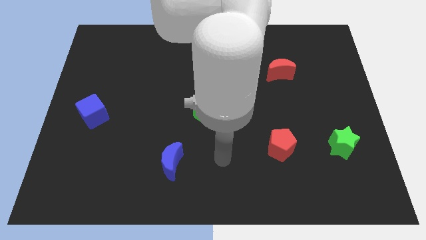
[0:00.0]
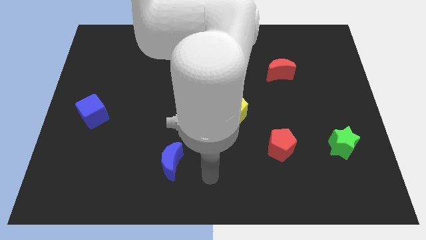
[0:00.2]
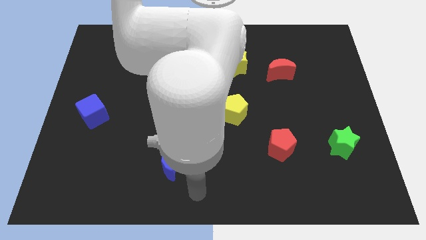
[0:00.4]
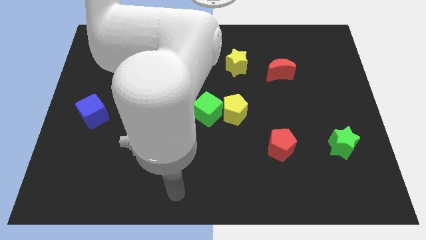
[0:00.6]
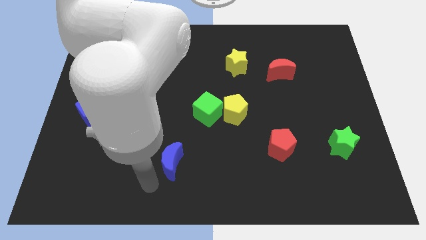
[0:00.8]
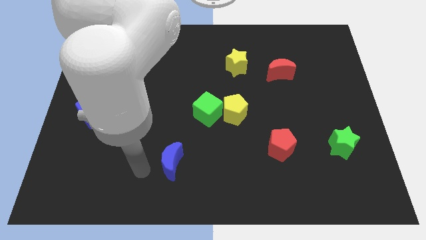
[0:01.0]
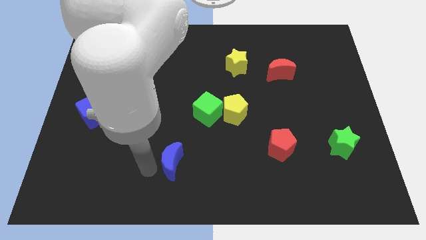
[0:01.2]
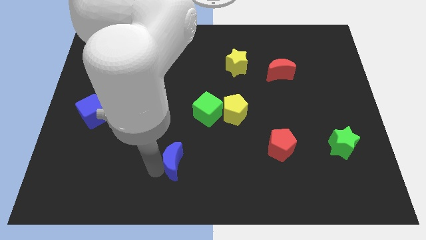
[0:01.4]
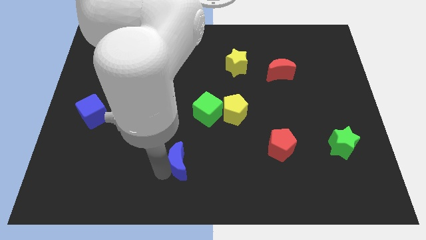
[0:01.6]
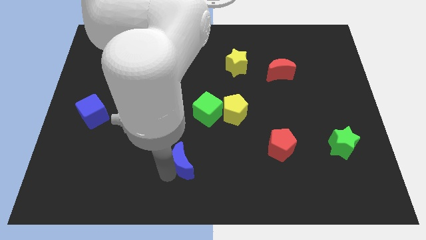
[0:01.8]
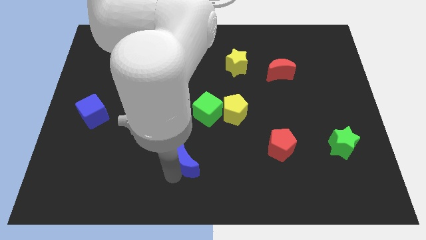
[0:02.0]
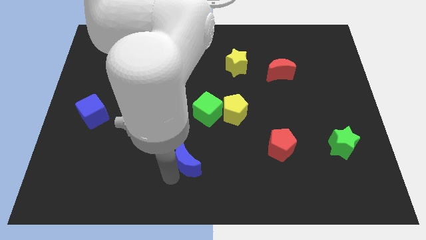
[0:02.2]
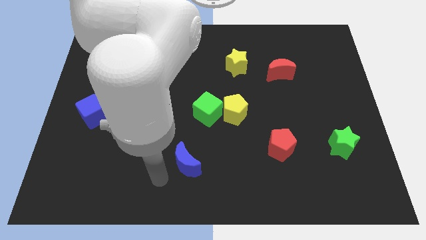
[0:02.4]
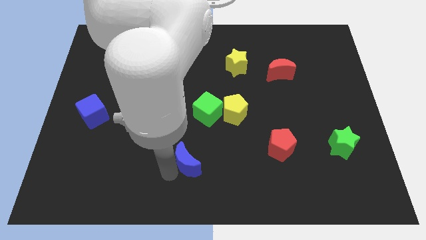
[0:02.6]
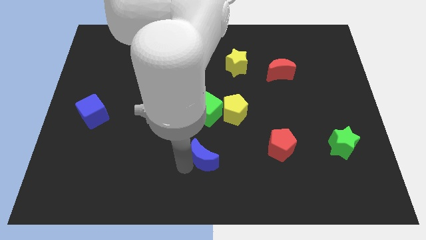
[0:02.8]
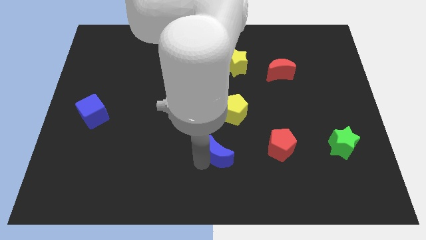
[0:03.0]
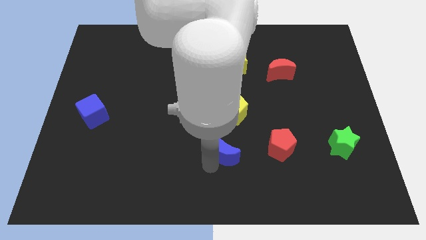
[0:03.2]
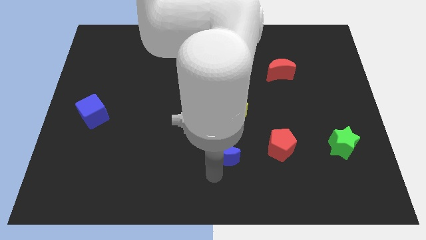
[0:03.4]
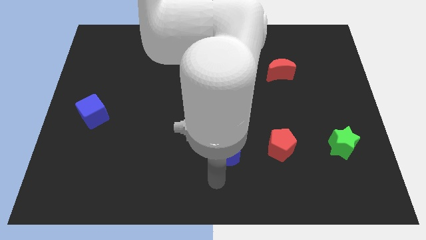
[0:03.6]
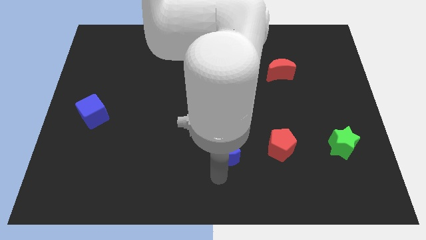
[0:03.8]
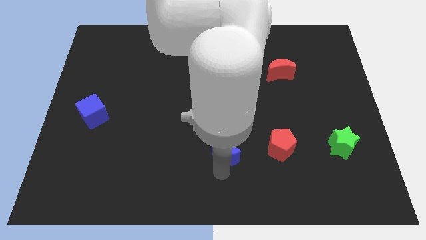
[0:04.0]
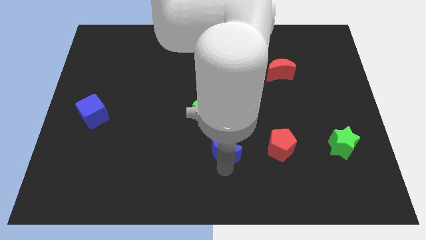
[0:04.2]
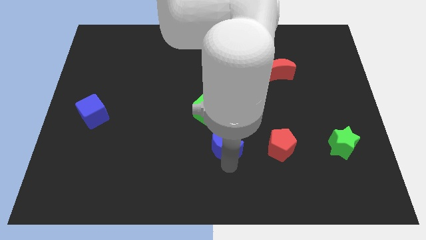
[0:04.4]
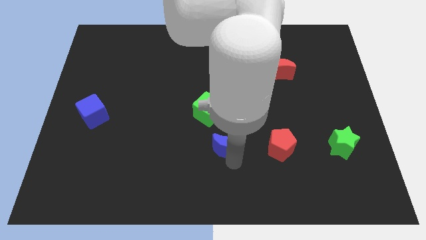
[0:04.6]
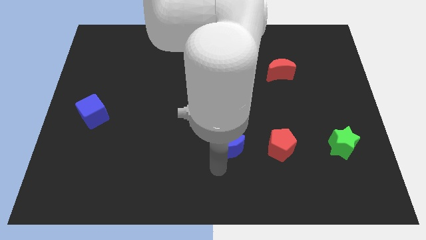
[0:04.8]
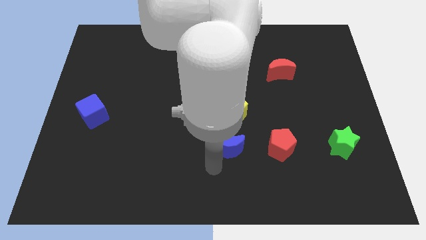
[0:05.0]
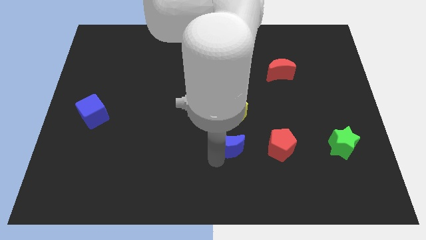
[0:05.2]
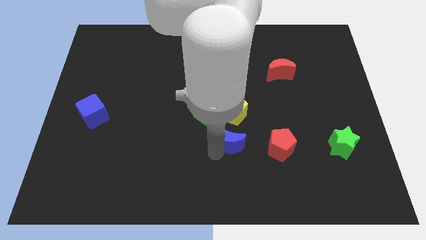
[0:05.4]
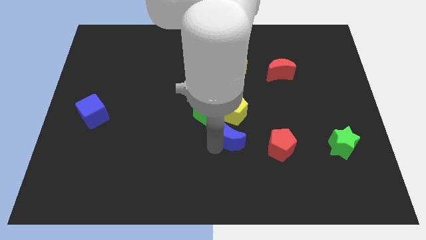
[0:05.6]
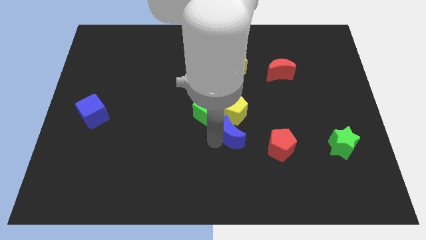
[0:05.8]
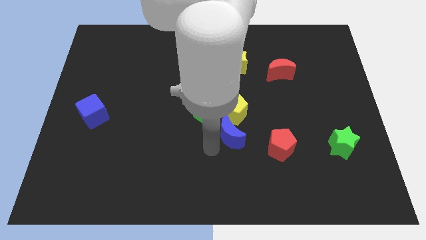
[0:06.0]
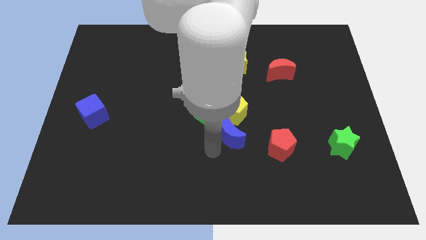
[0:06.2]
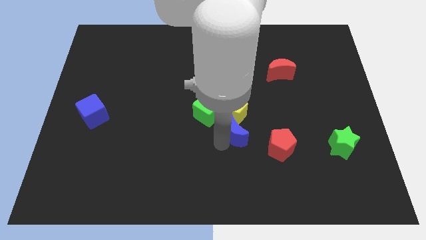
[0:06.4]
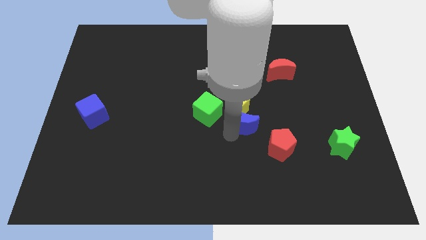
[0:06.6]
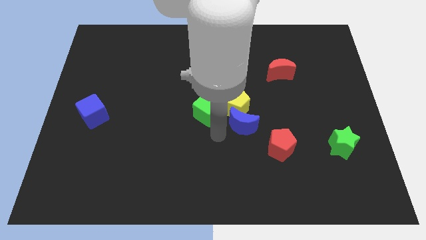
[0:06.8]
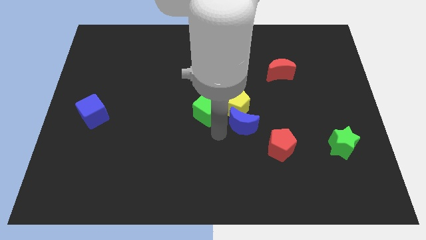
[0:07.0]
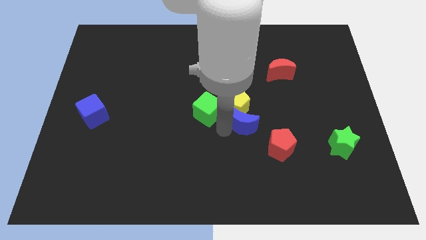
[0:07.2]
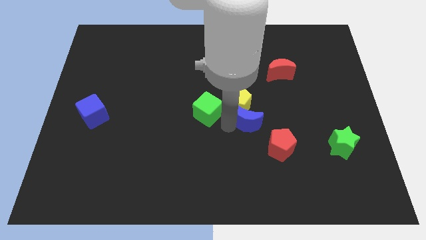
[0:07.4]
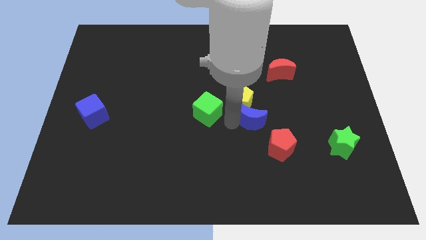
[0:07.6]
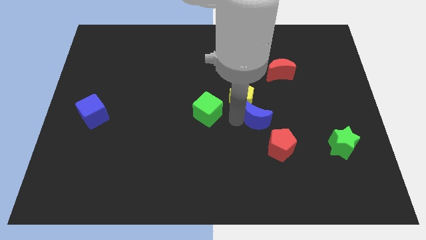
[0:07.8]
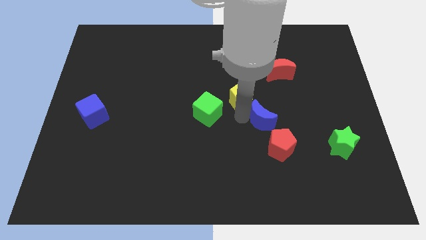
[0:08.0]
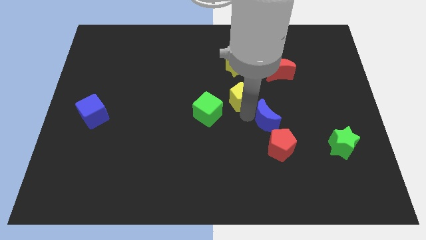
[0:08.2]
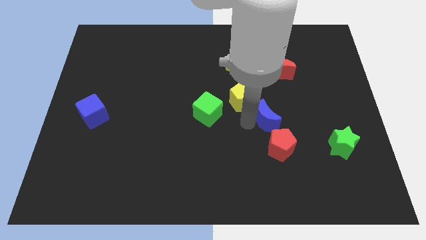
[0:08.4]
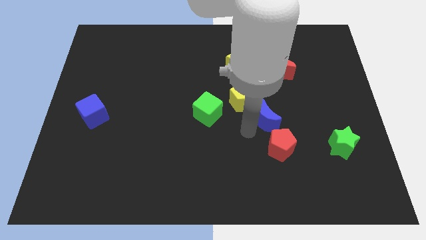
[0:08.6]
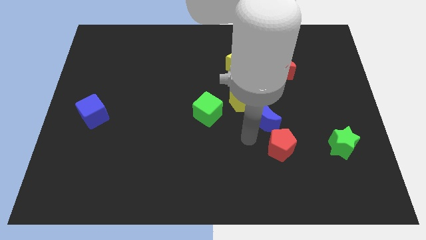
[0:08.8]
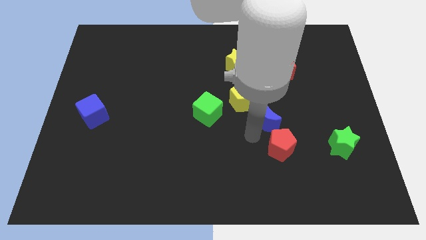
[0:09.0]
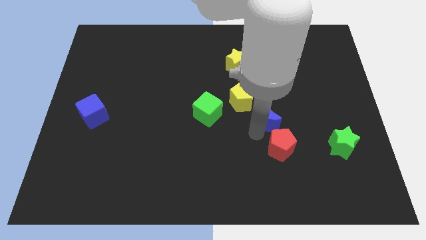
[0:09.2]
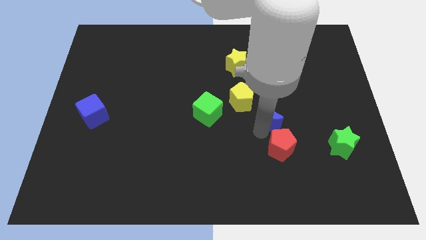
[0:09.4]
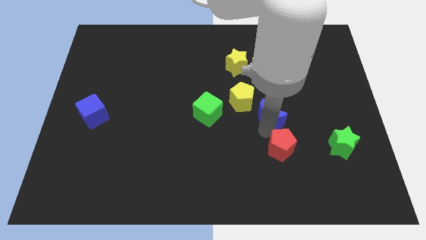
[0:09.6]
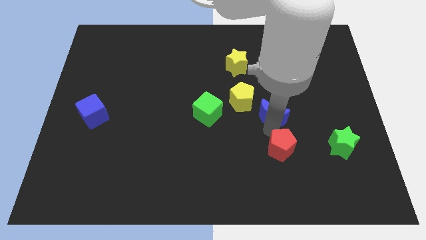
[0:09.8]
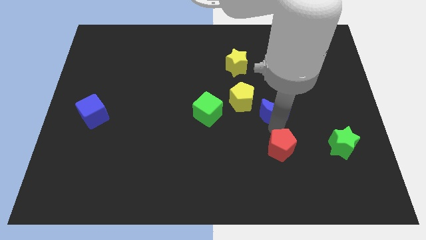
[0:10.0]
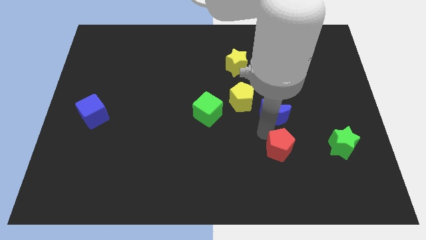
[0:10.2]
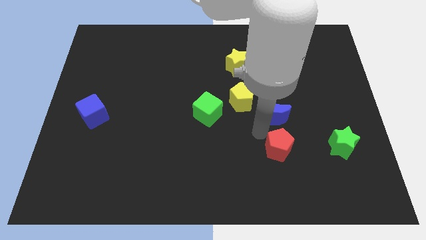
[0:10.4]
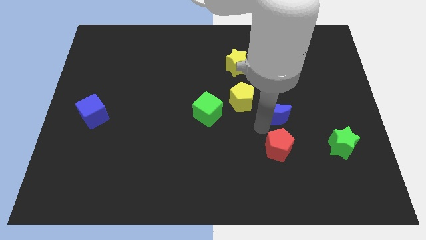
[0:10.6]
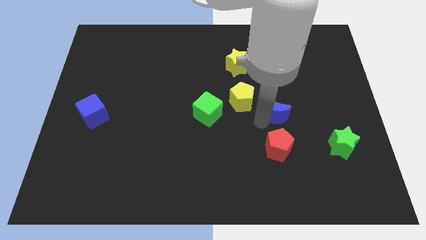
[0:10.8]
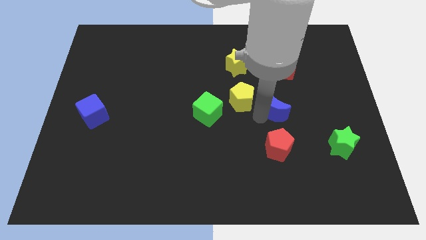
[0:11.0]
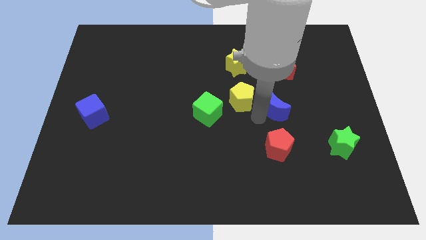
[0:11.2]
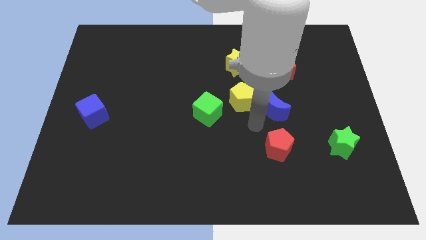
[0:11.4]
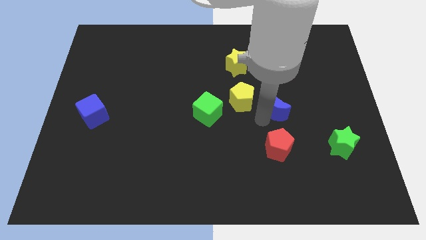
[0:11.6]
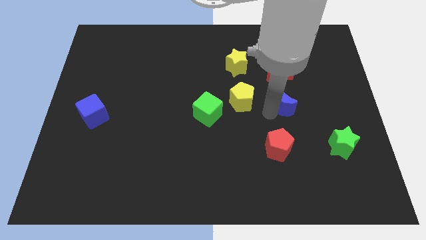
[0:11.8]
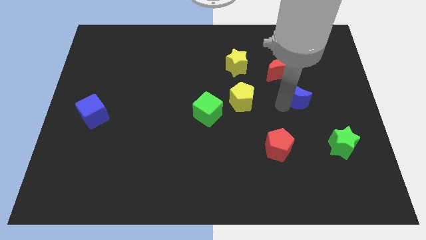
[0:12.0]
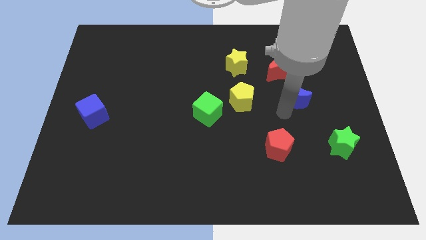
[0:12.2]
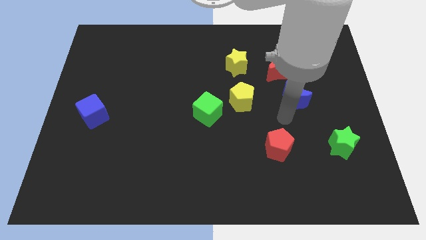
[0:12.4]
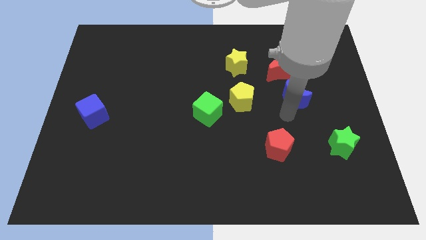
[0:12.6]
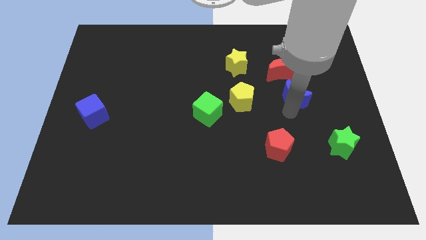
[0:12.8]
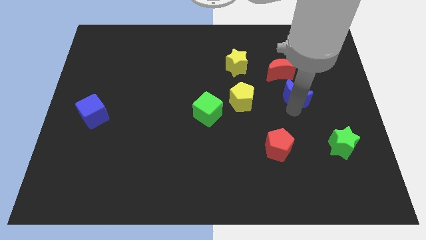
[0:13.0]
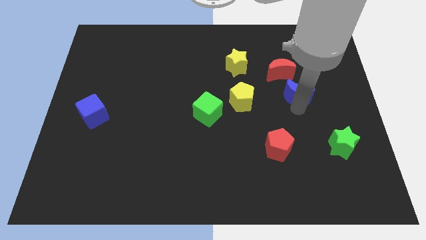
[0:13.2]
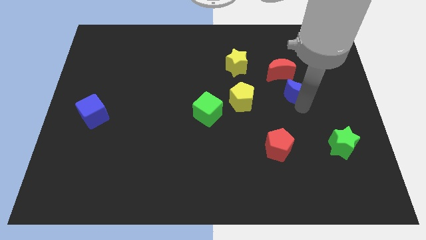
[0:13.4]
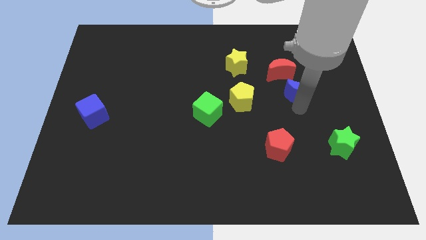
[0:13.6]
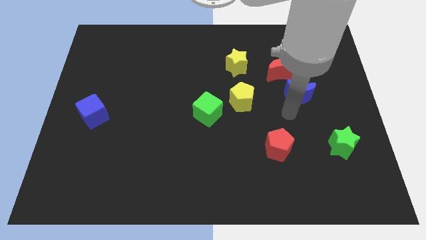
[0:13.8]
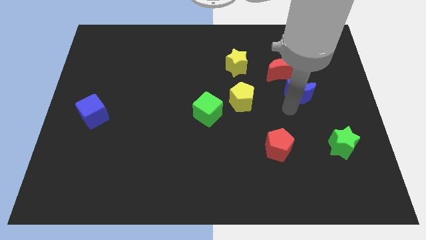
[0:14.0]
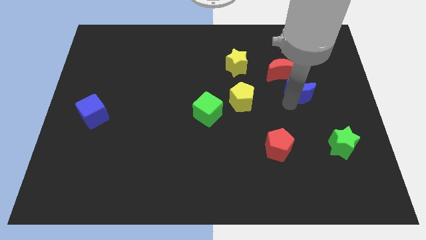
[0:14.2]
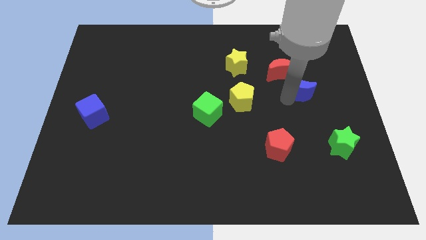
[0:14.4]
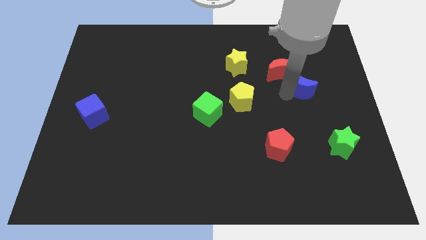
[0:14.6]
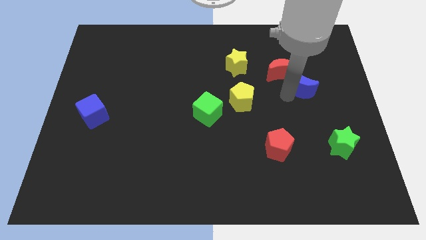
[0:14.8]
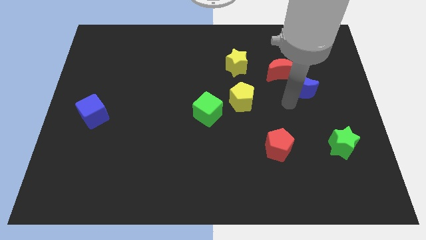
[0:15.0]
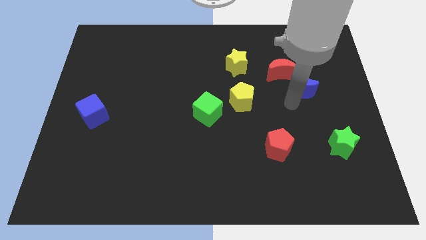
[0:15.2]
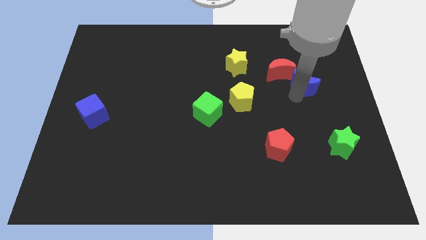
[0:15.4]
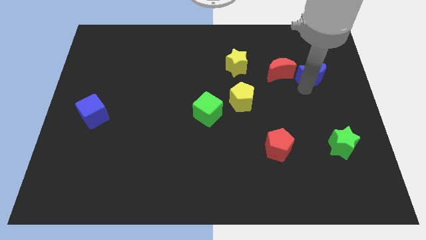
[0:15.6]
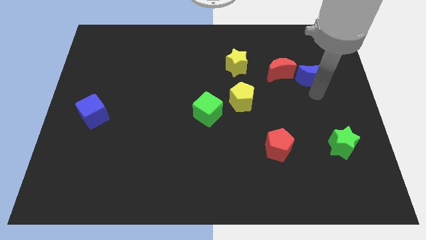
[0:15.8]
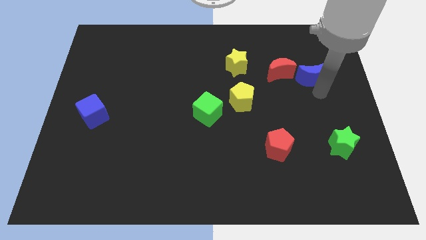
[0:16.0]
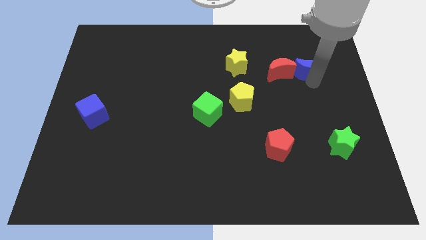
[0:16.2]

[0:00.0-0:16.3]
slide the blue moon diagonally up and to the right of the red moon
